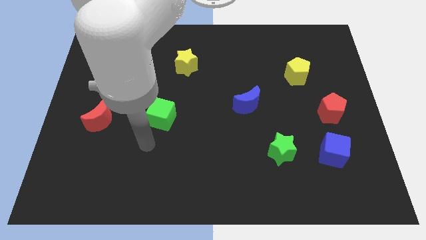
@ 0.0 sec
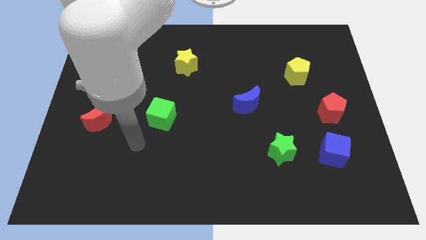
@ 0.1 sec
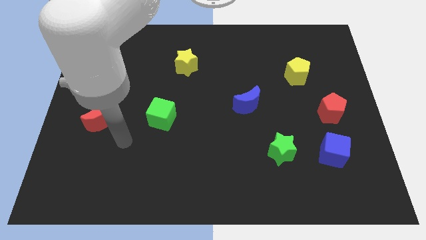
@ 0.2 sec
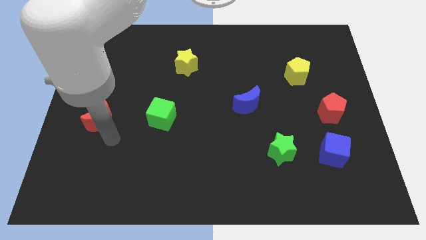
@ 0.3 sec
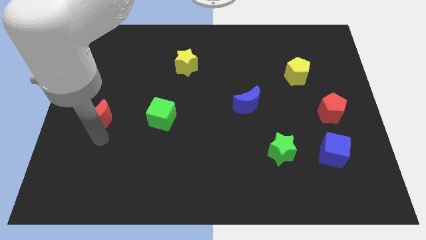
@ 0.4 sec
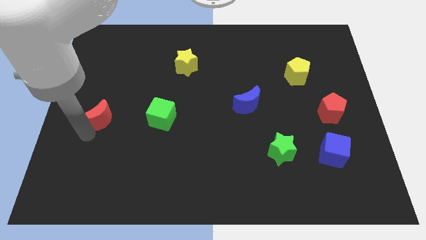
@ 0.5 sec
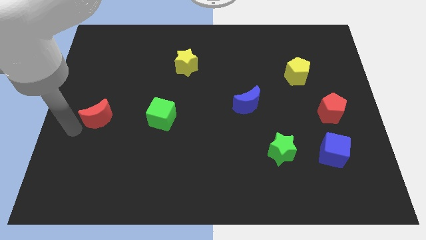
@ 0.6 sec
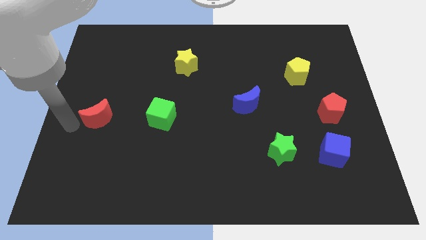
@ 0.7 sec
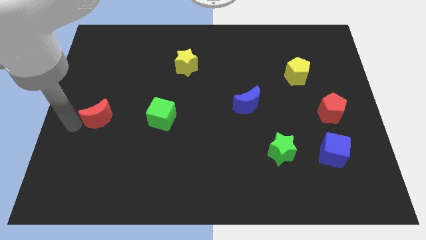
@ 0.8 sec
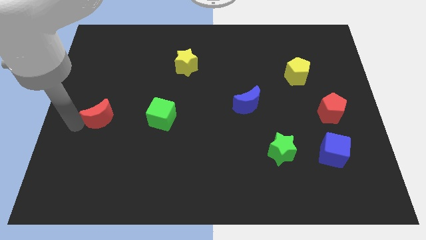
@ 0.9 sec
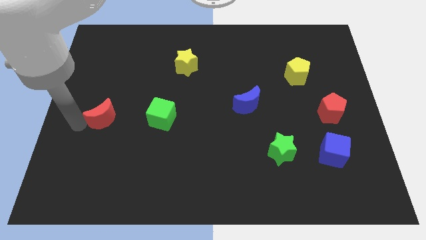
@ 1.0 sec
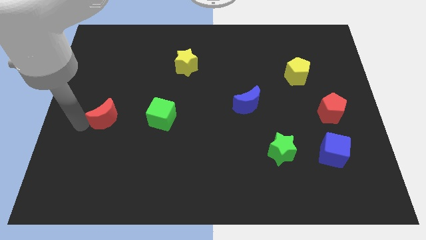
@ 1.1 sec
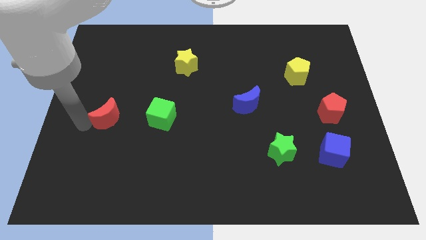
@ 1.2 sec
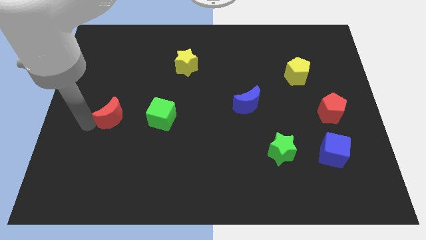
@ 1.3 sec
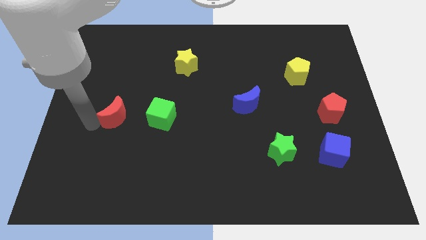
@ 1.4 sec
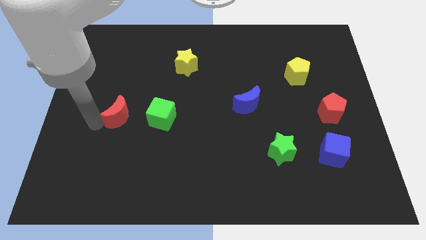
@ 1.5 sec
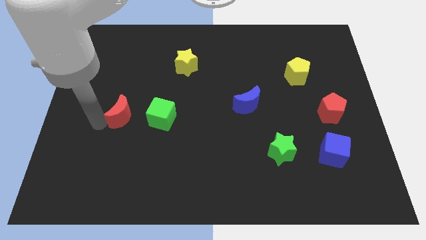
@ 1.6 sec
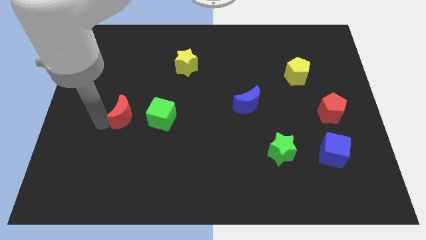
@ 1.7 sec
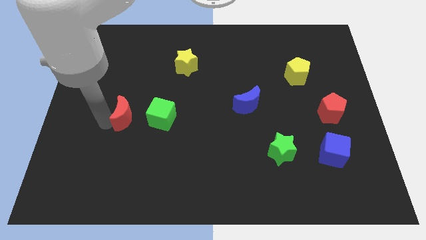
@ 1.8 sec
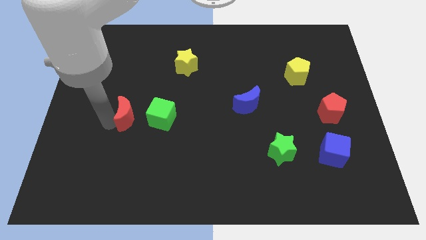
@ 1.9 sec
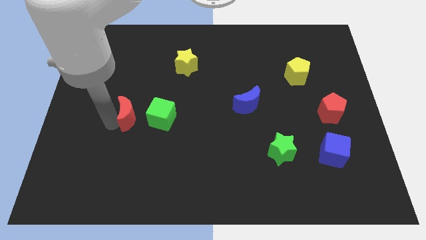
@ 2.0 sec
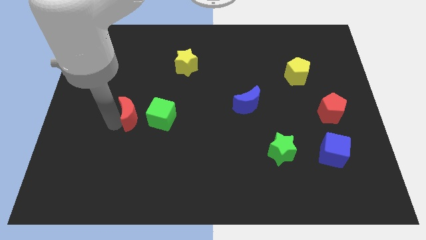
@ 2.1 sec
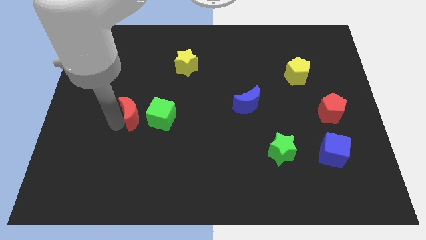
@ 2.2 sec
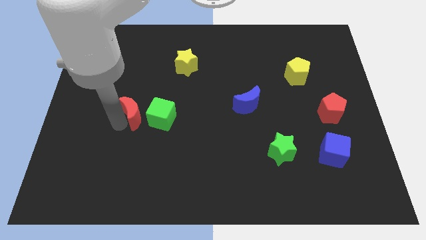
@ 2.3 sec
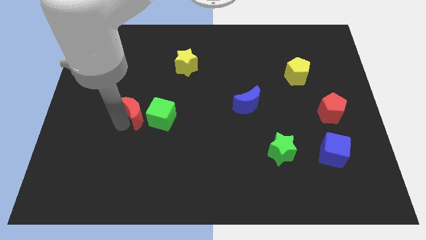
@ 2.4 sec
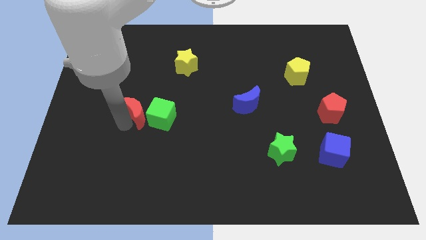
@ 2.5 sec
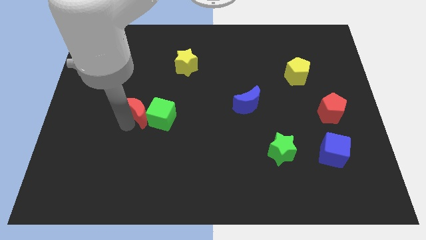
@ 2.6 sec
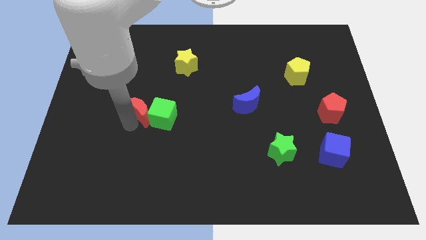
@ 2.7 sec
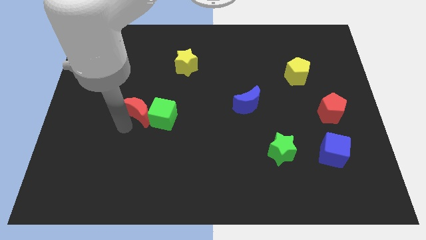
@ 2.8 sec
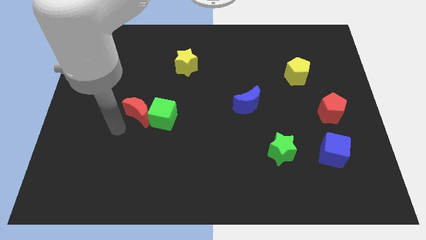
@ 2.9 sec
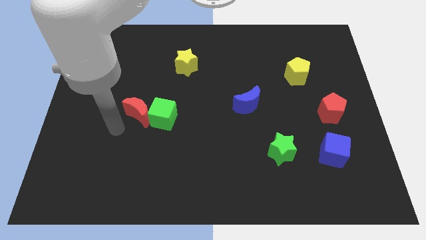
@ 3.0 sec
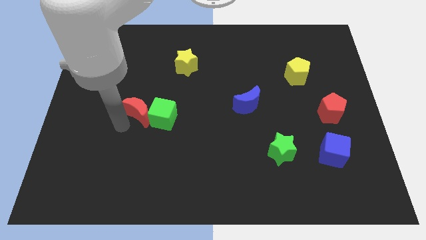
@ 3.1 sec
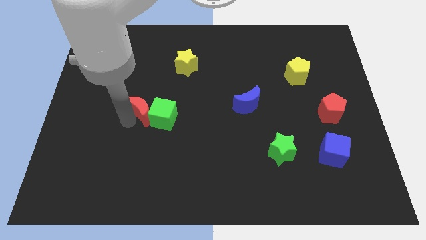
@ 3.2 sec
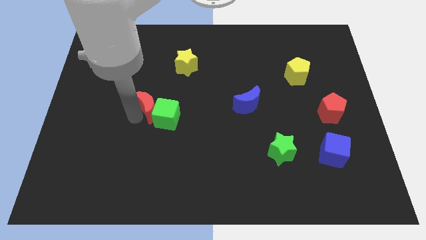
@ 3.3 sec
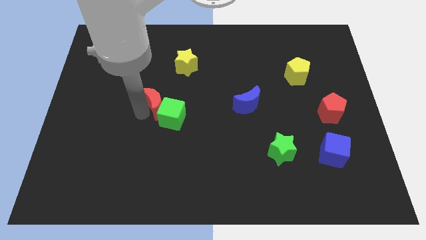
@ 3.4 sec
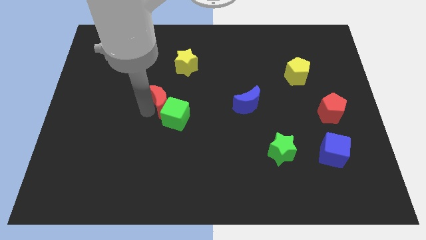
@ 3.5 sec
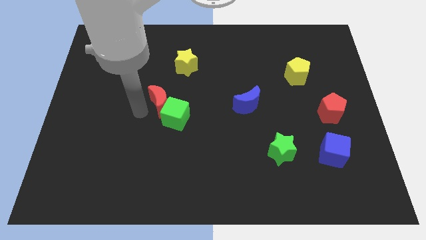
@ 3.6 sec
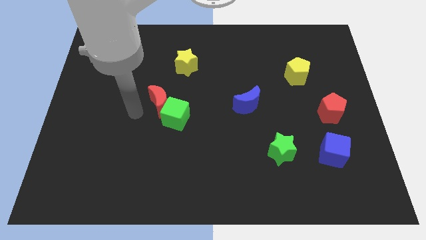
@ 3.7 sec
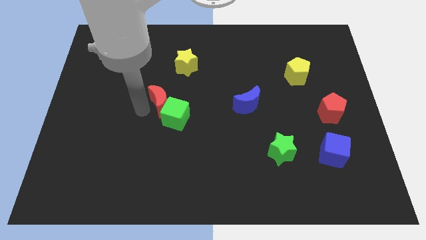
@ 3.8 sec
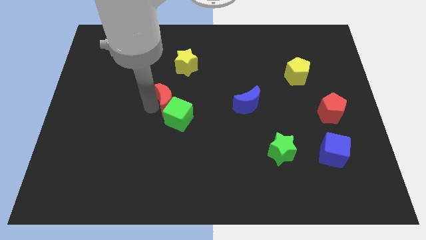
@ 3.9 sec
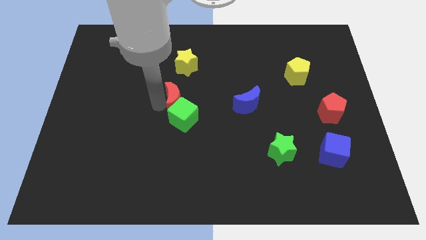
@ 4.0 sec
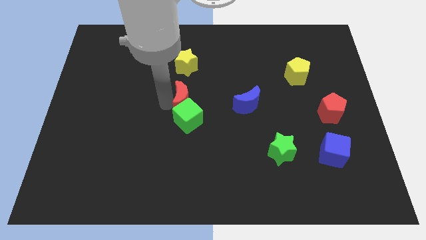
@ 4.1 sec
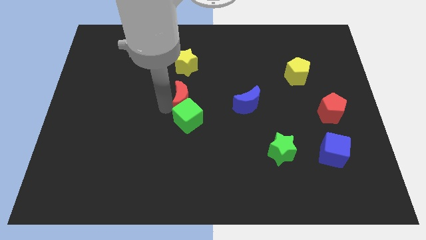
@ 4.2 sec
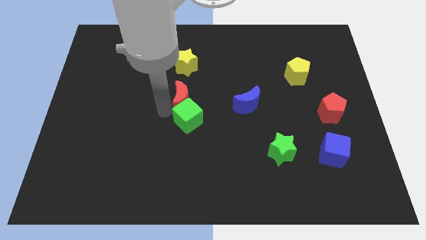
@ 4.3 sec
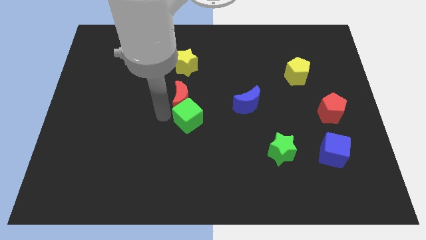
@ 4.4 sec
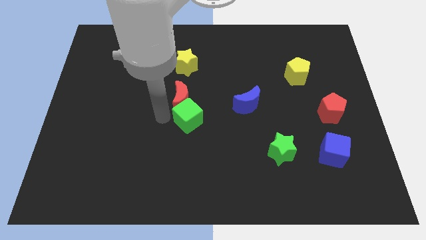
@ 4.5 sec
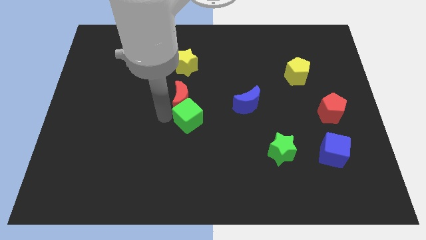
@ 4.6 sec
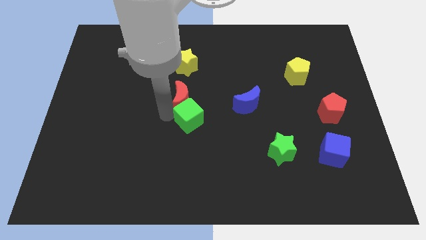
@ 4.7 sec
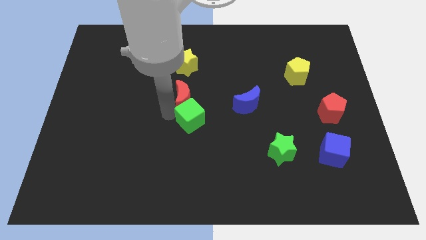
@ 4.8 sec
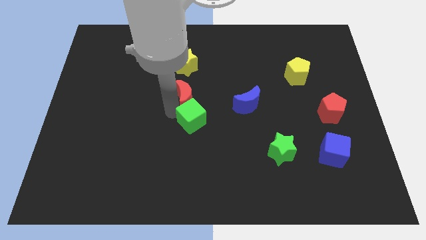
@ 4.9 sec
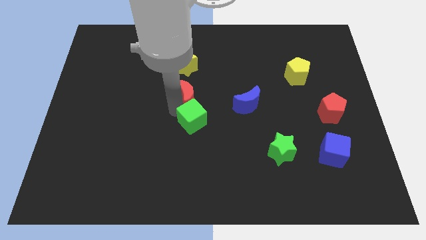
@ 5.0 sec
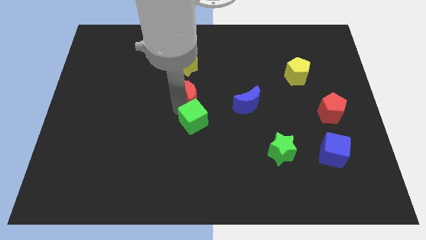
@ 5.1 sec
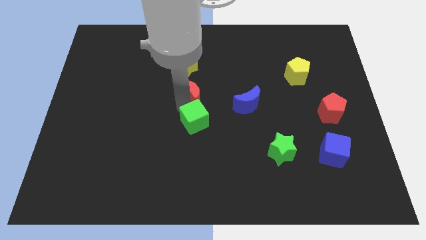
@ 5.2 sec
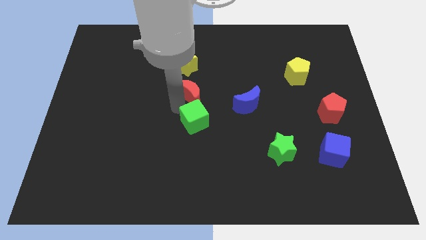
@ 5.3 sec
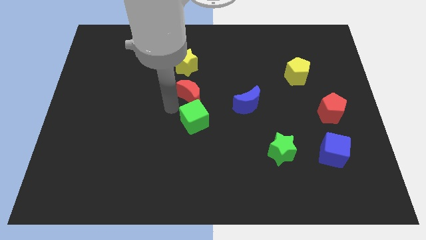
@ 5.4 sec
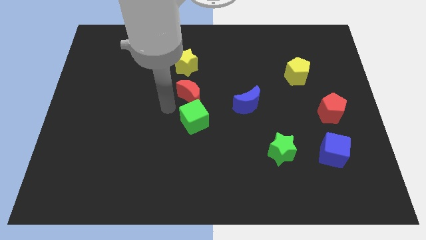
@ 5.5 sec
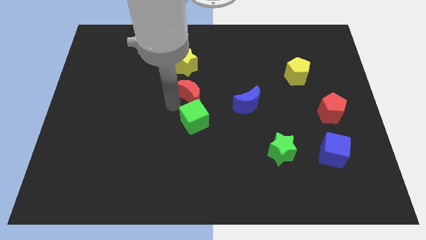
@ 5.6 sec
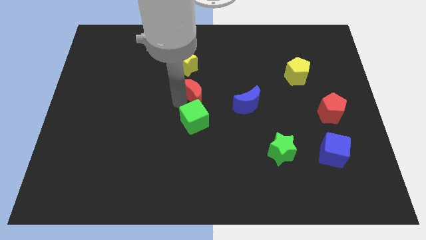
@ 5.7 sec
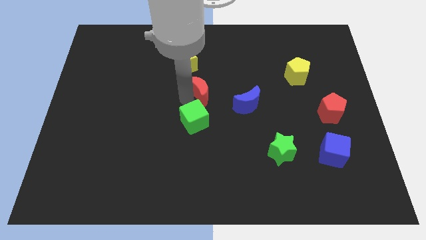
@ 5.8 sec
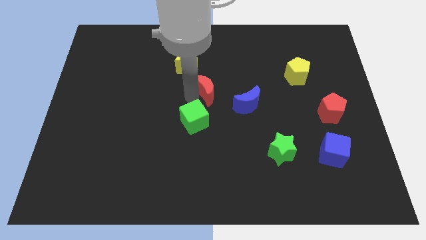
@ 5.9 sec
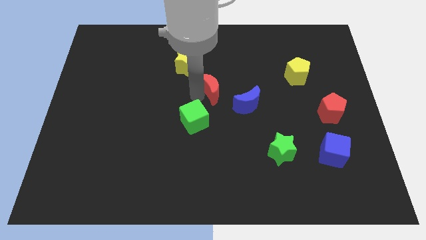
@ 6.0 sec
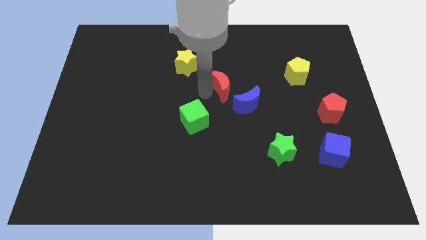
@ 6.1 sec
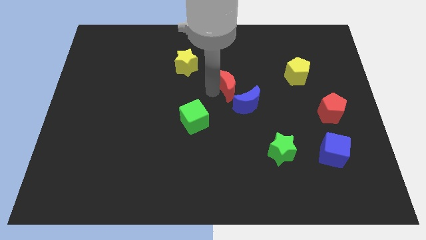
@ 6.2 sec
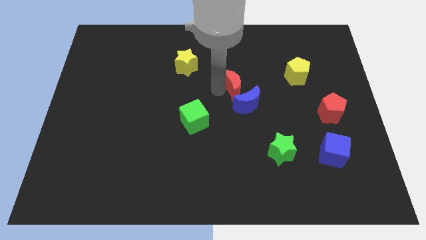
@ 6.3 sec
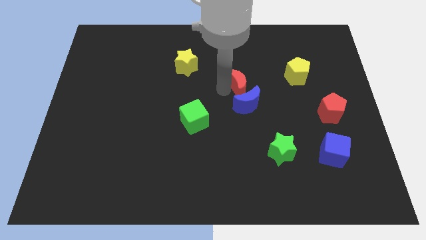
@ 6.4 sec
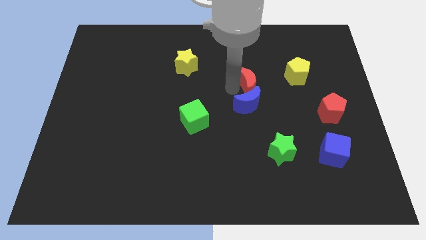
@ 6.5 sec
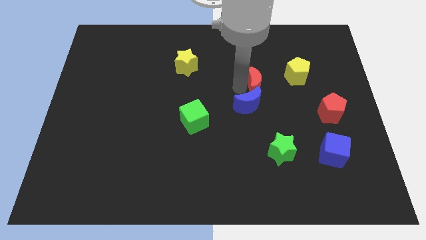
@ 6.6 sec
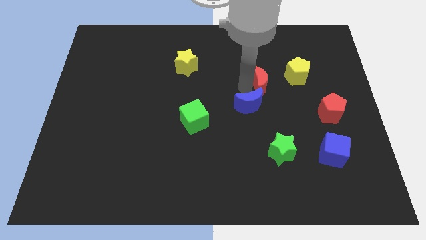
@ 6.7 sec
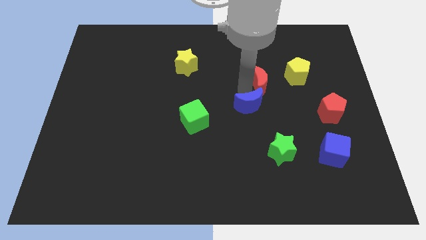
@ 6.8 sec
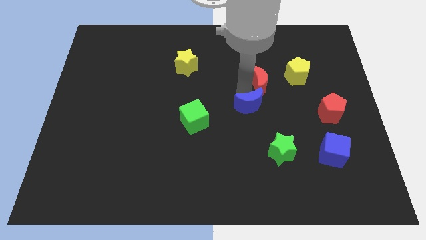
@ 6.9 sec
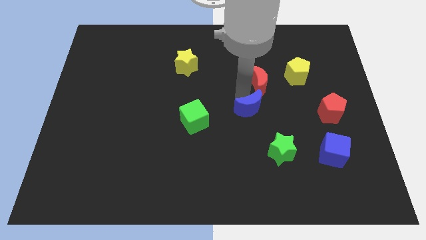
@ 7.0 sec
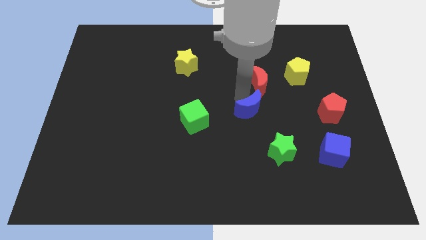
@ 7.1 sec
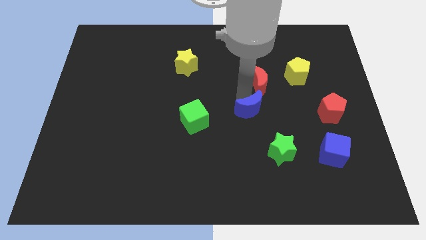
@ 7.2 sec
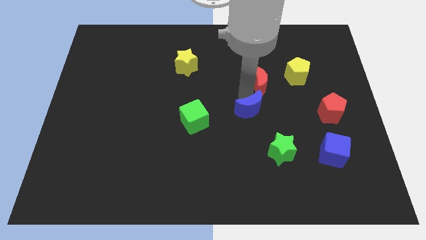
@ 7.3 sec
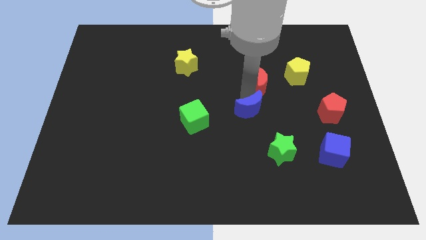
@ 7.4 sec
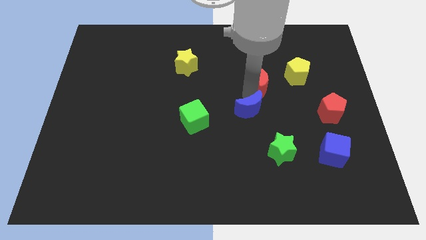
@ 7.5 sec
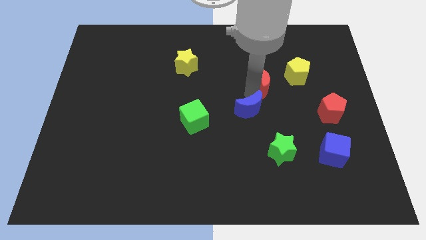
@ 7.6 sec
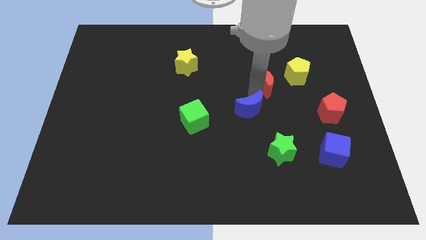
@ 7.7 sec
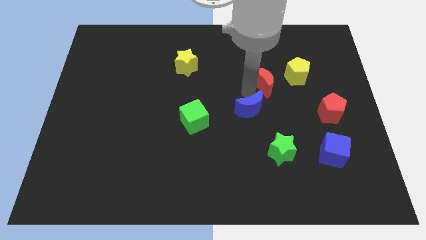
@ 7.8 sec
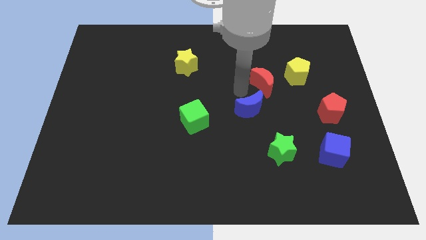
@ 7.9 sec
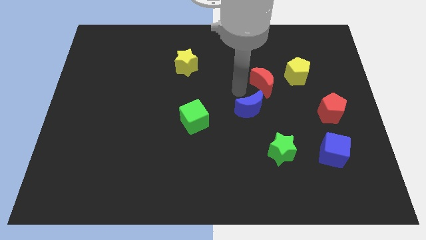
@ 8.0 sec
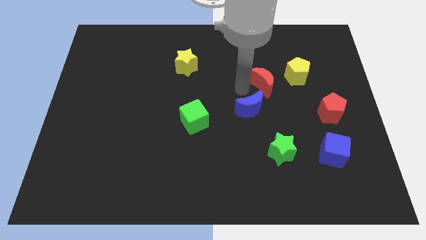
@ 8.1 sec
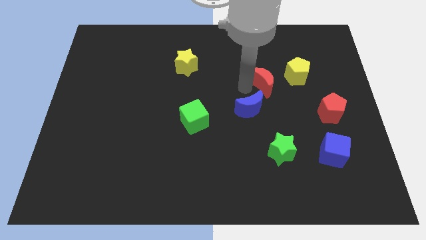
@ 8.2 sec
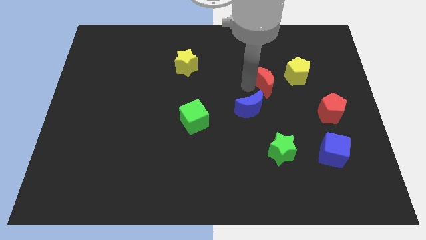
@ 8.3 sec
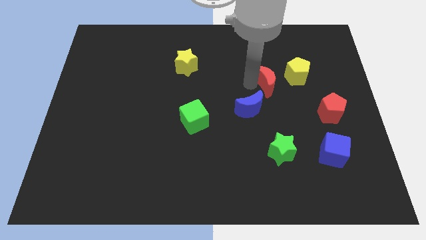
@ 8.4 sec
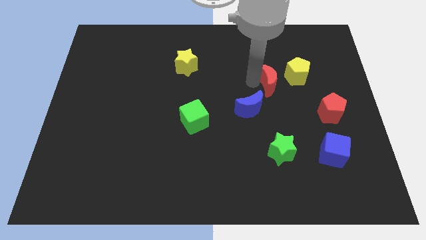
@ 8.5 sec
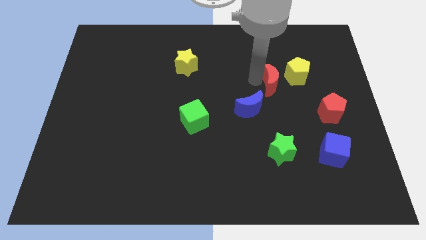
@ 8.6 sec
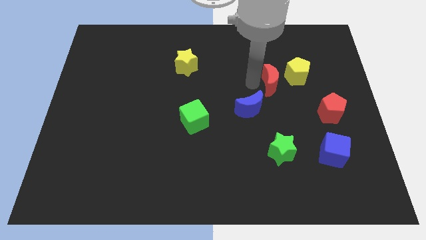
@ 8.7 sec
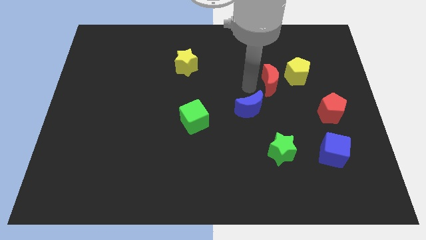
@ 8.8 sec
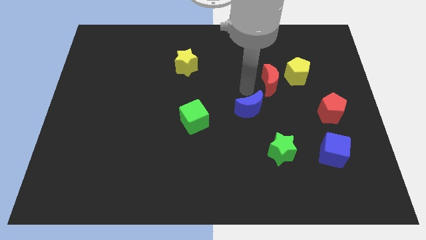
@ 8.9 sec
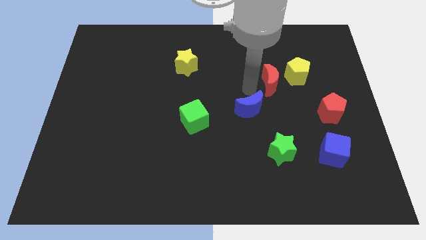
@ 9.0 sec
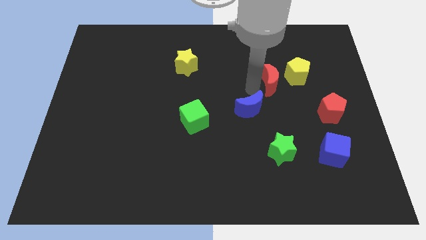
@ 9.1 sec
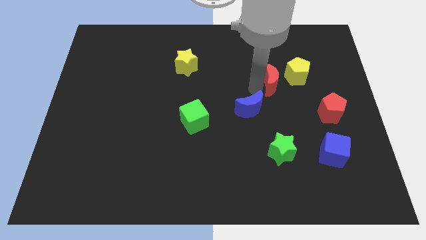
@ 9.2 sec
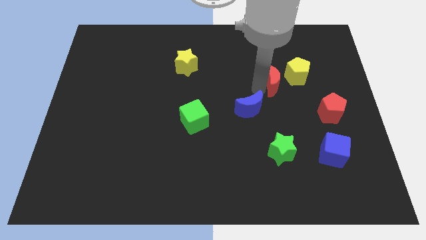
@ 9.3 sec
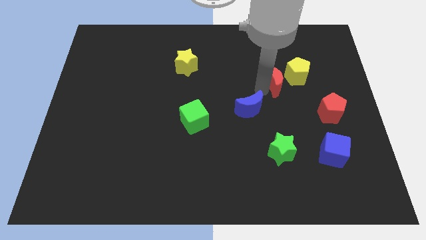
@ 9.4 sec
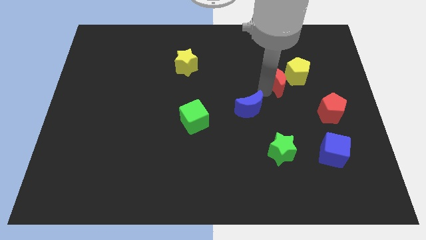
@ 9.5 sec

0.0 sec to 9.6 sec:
move the red moon towards the yellow pentagon
